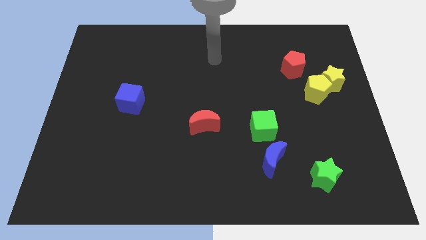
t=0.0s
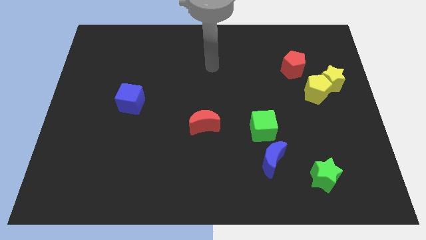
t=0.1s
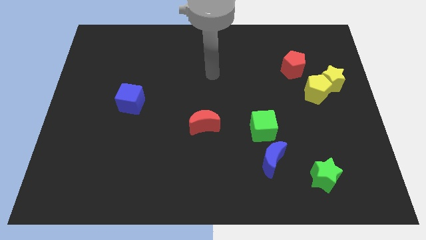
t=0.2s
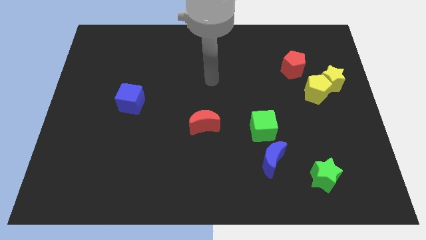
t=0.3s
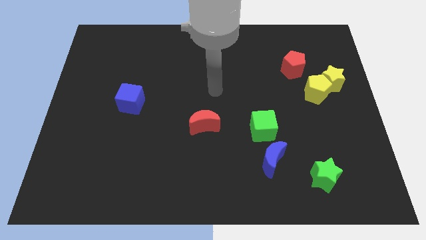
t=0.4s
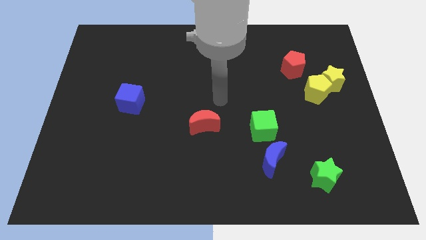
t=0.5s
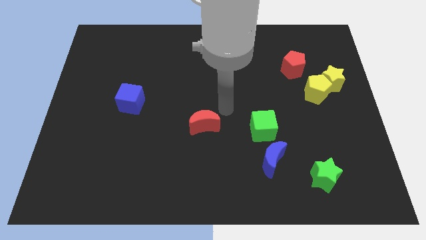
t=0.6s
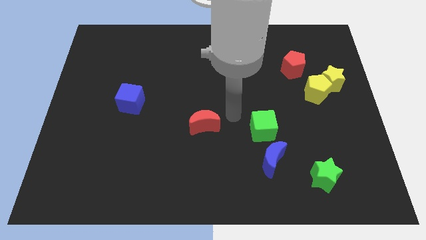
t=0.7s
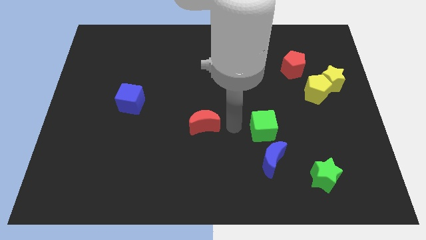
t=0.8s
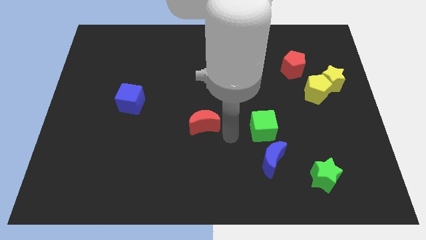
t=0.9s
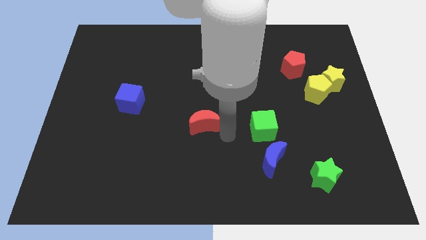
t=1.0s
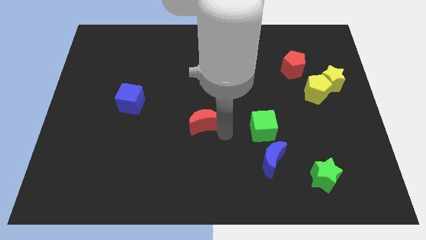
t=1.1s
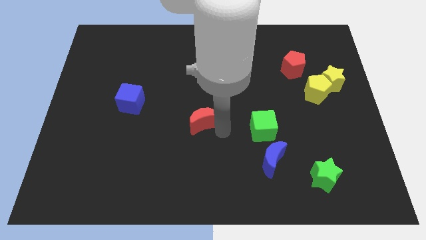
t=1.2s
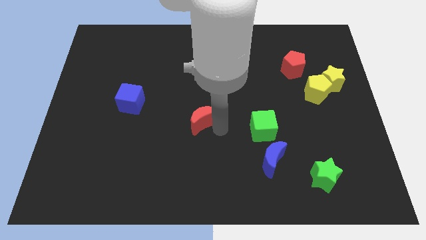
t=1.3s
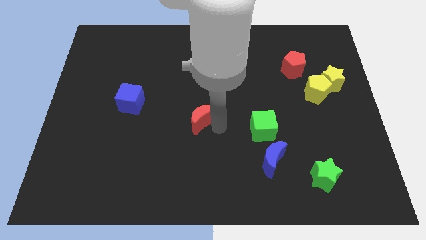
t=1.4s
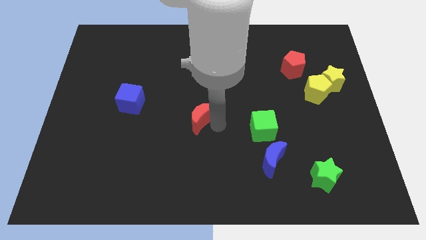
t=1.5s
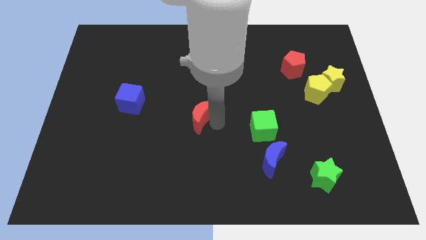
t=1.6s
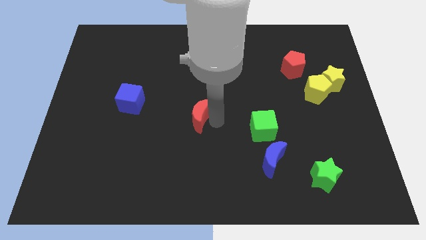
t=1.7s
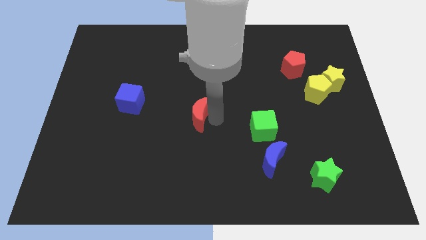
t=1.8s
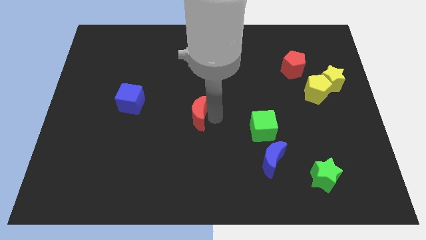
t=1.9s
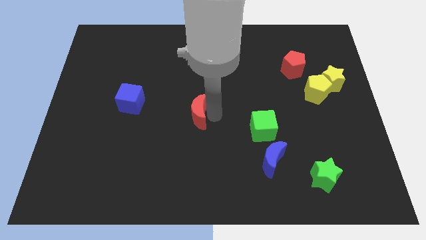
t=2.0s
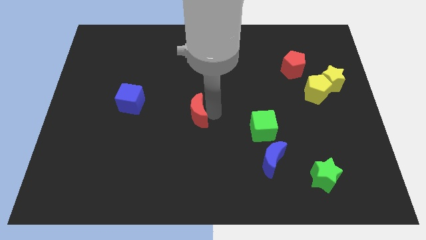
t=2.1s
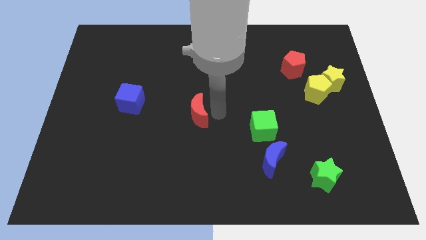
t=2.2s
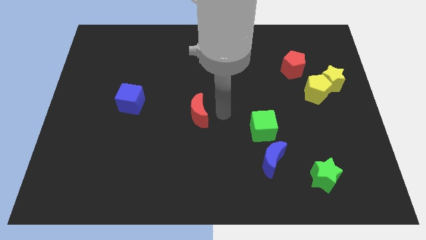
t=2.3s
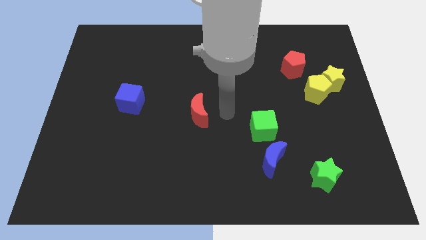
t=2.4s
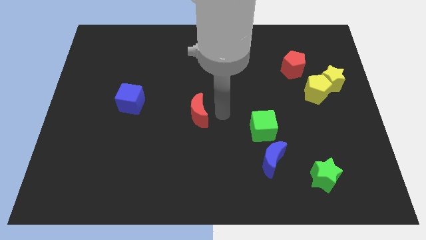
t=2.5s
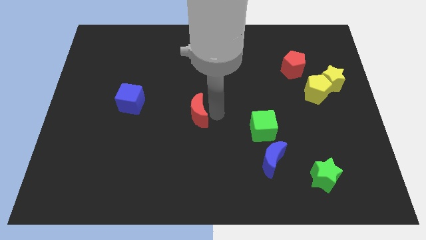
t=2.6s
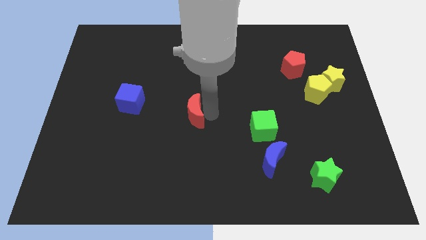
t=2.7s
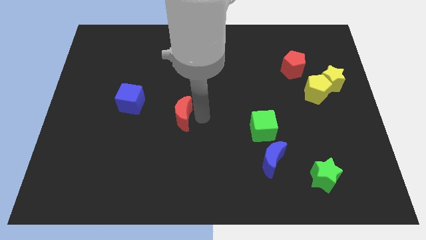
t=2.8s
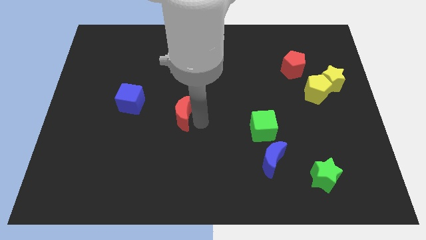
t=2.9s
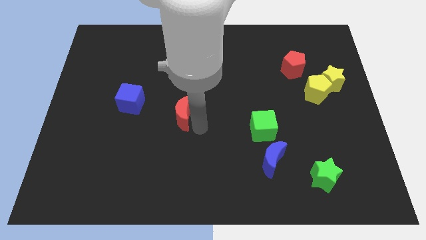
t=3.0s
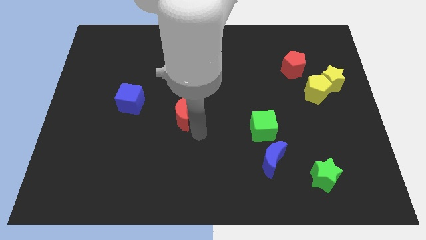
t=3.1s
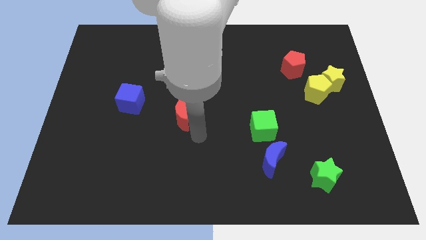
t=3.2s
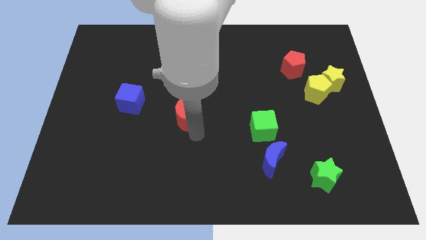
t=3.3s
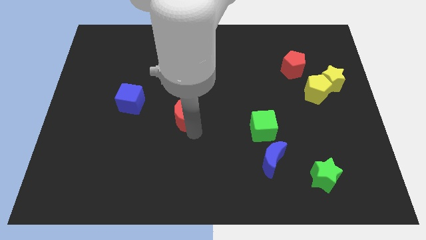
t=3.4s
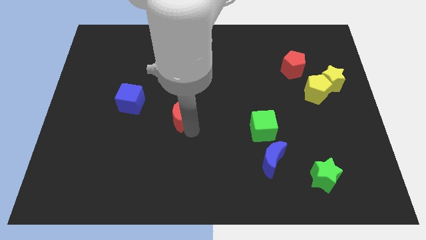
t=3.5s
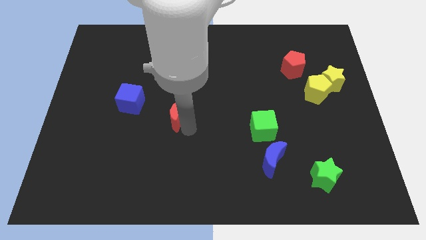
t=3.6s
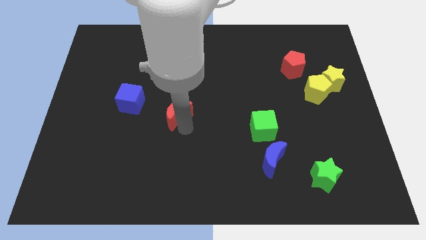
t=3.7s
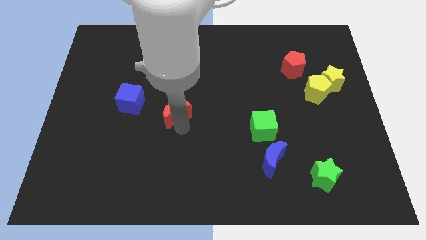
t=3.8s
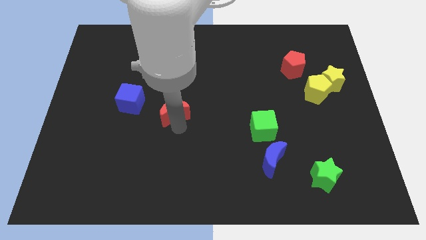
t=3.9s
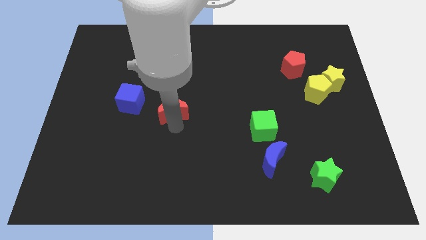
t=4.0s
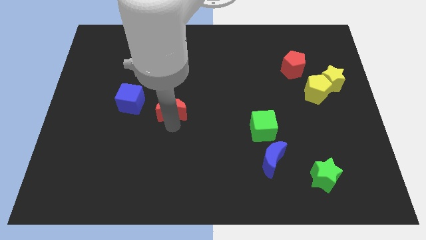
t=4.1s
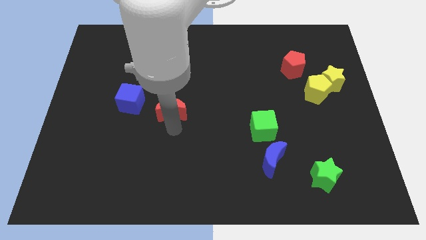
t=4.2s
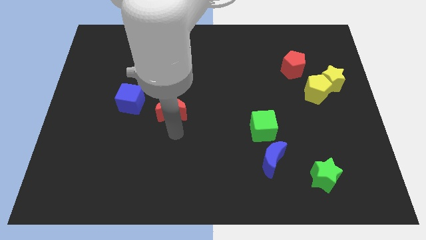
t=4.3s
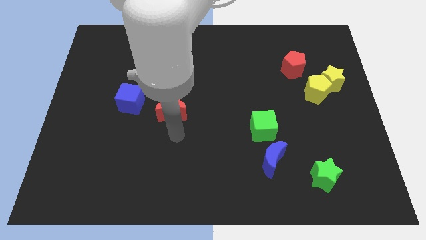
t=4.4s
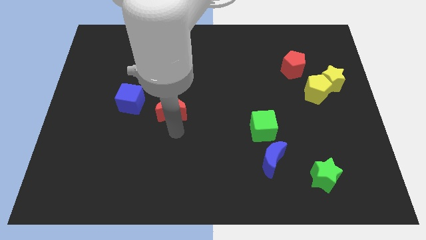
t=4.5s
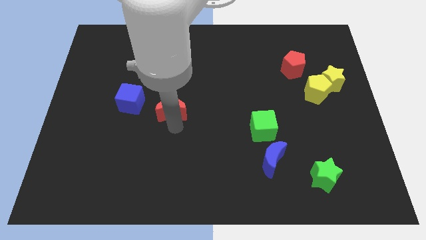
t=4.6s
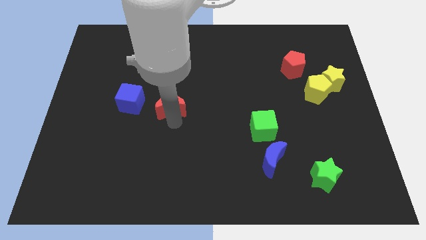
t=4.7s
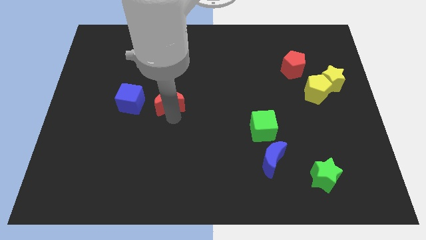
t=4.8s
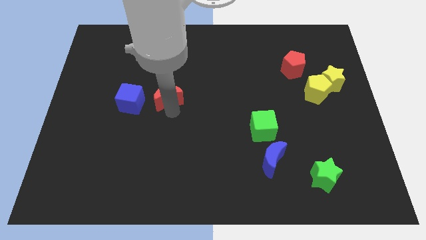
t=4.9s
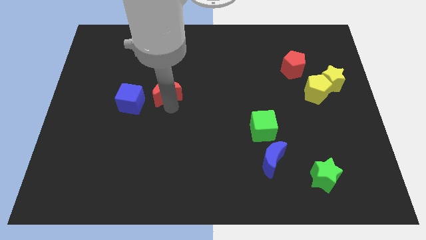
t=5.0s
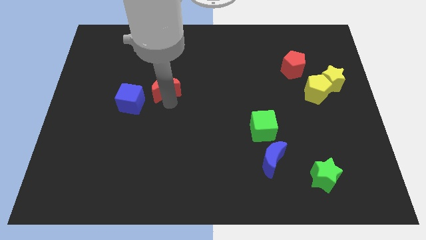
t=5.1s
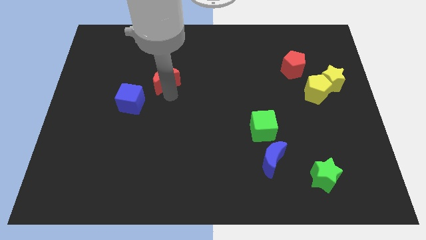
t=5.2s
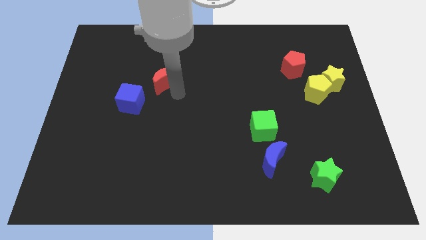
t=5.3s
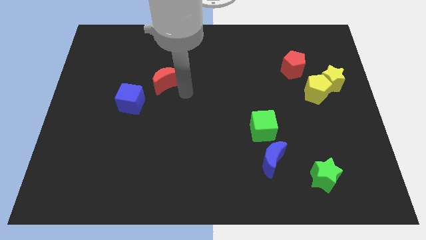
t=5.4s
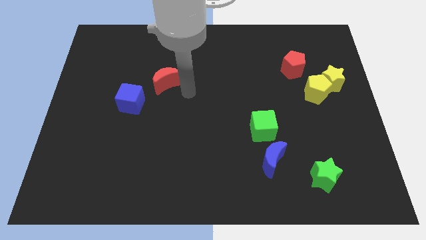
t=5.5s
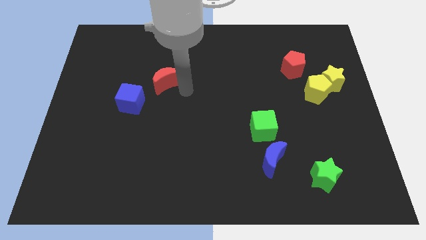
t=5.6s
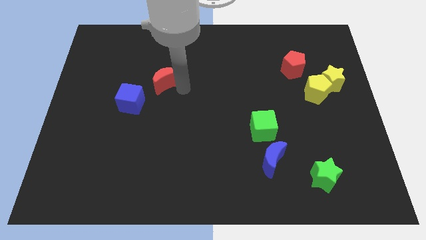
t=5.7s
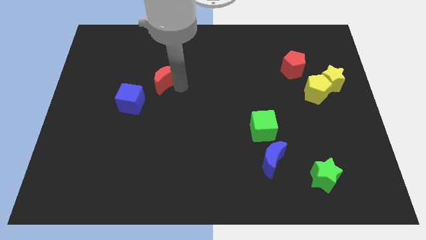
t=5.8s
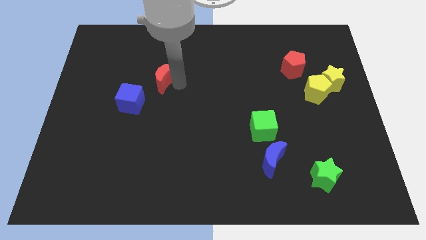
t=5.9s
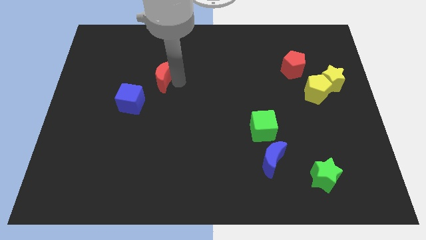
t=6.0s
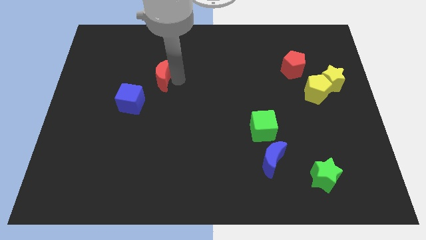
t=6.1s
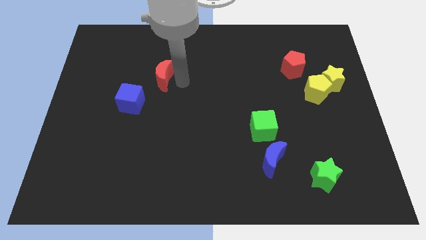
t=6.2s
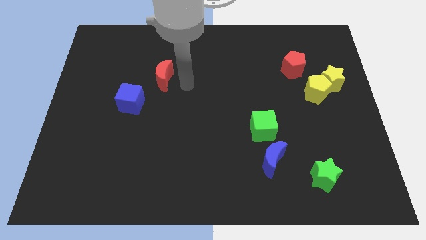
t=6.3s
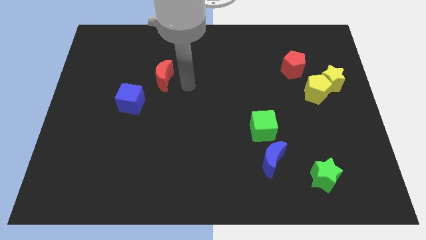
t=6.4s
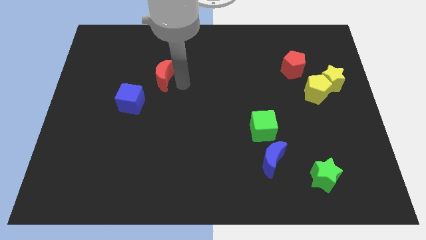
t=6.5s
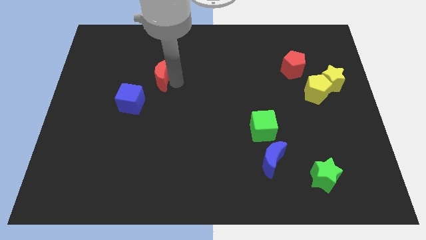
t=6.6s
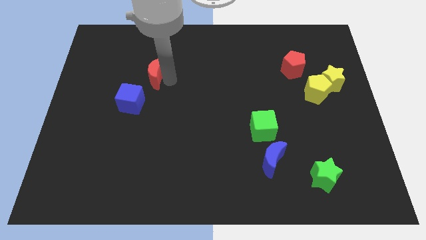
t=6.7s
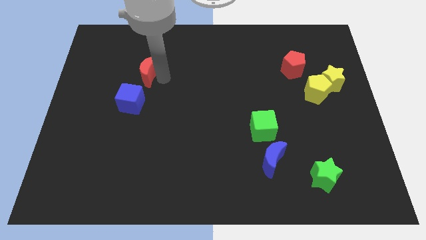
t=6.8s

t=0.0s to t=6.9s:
put the red moon above the blue cube

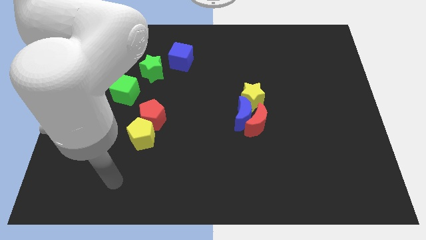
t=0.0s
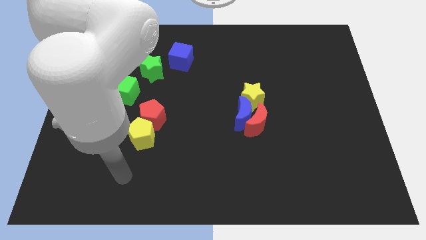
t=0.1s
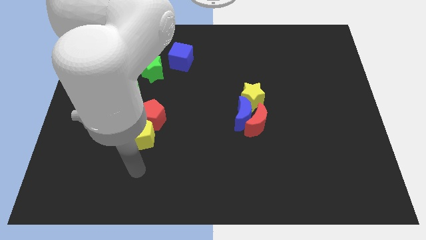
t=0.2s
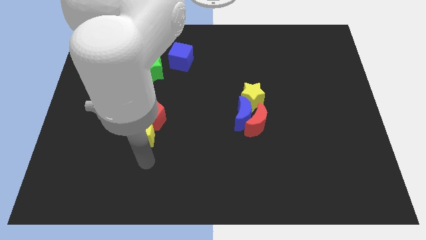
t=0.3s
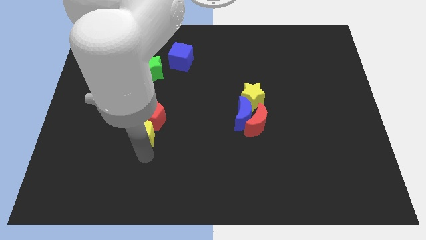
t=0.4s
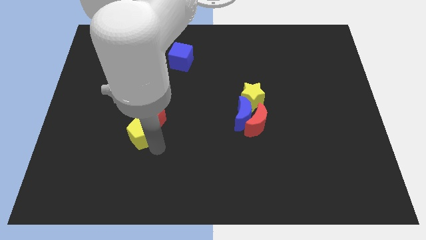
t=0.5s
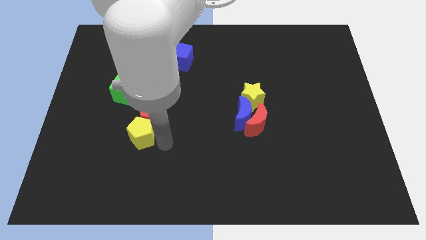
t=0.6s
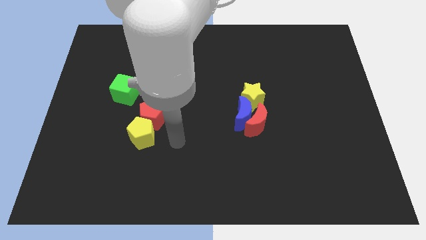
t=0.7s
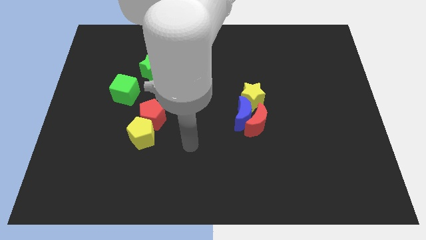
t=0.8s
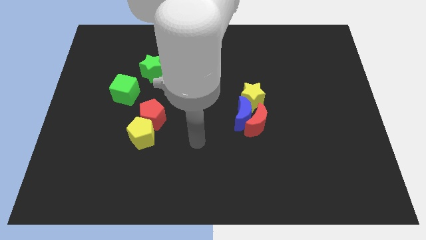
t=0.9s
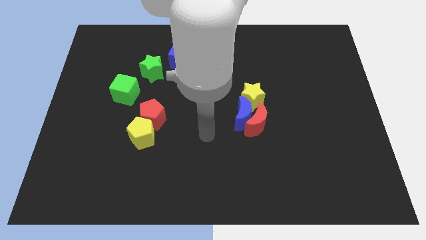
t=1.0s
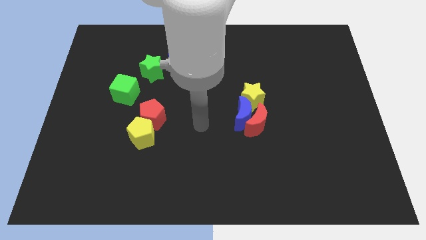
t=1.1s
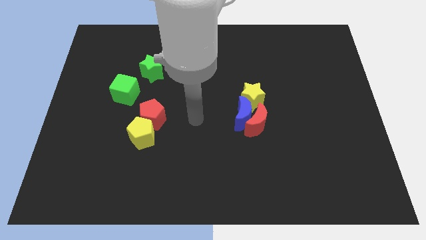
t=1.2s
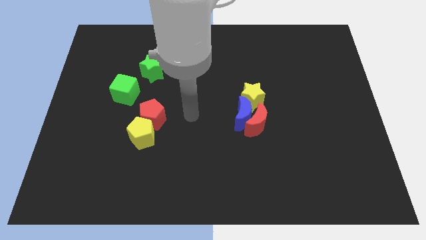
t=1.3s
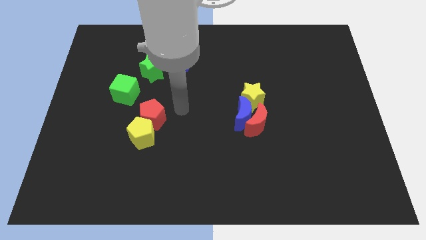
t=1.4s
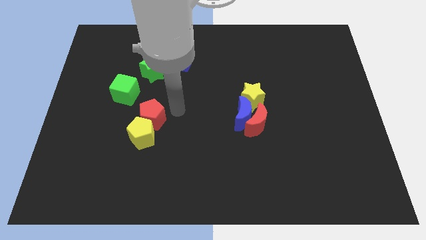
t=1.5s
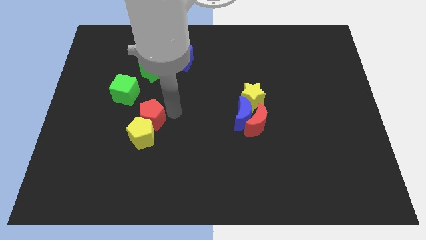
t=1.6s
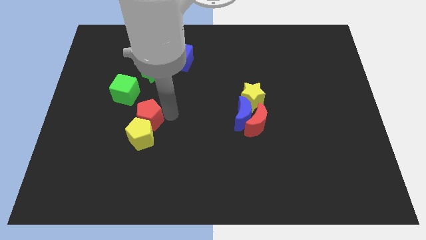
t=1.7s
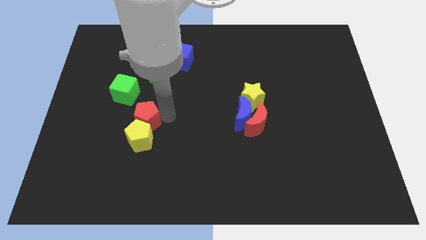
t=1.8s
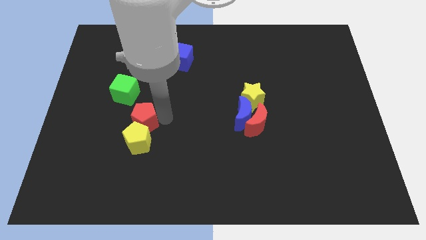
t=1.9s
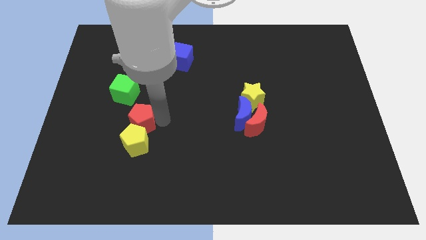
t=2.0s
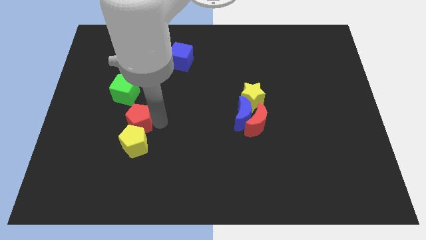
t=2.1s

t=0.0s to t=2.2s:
push the red pentagon to the bottom side of the green cube
